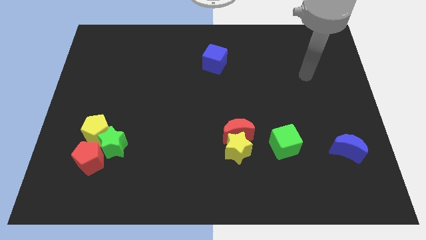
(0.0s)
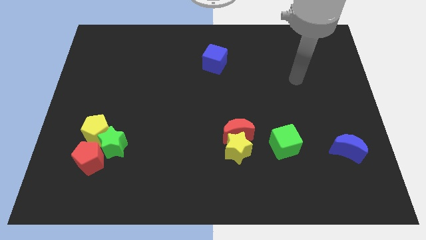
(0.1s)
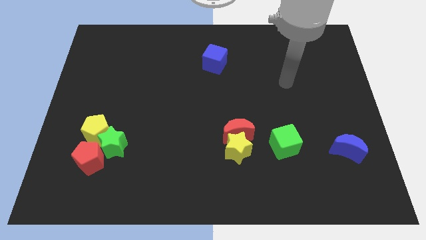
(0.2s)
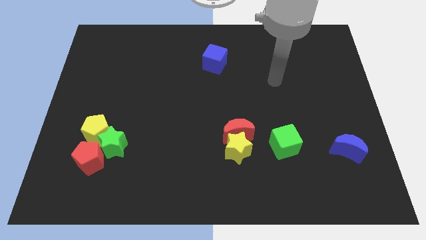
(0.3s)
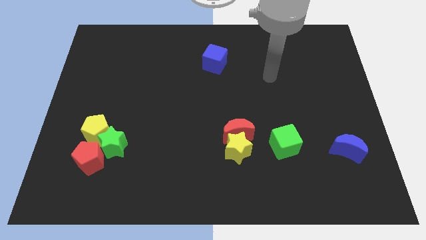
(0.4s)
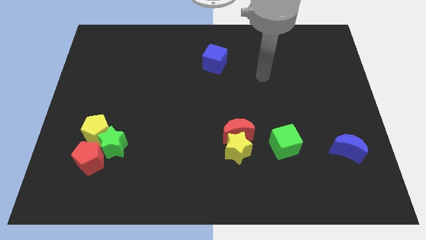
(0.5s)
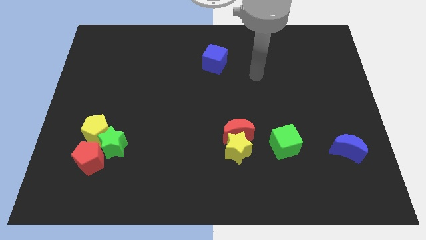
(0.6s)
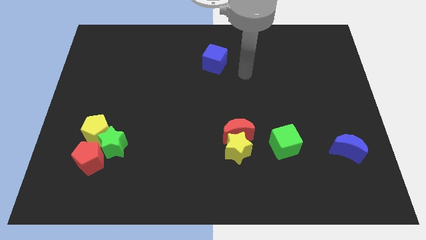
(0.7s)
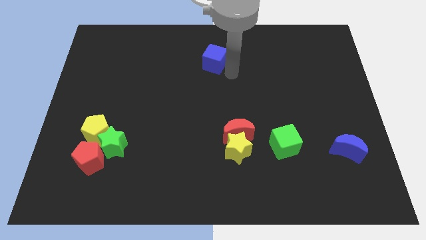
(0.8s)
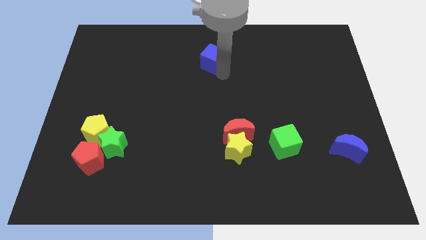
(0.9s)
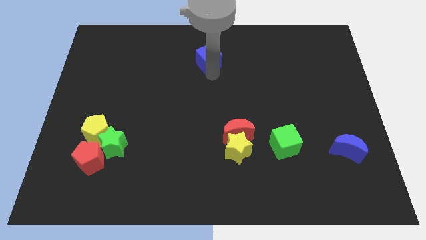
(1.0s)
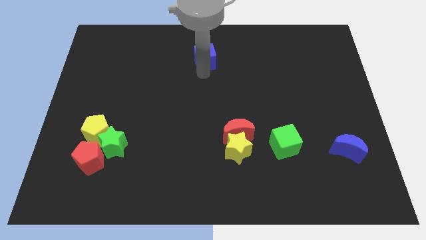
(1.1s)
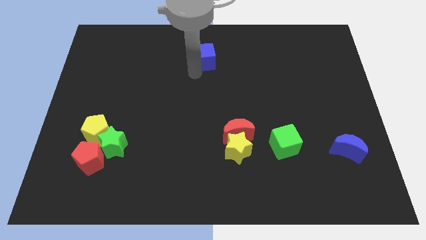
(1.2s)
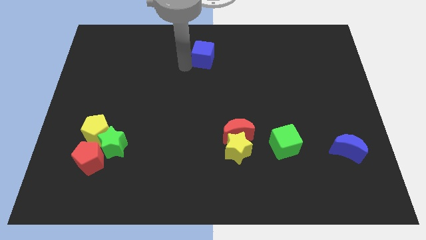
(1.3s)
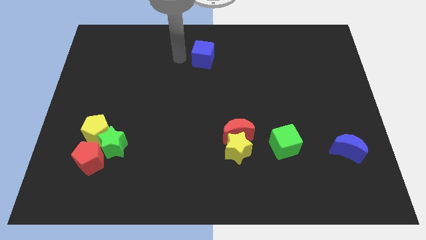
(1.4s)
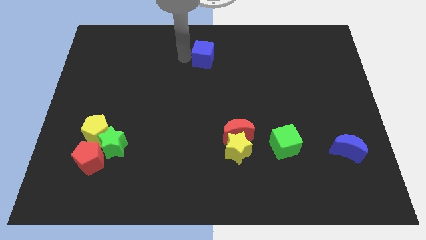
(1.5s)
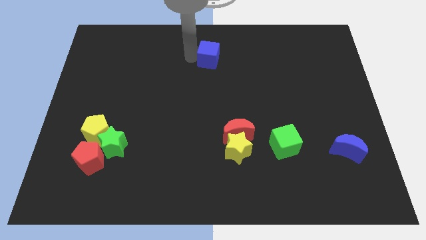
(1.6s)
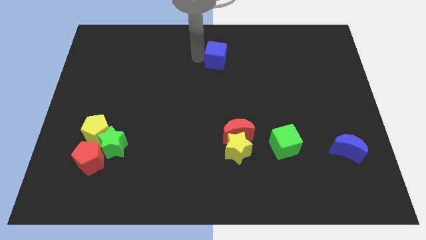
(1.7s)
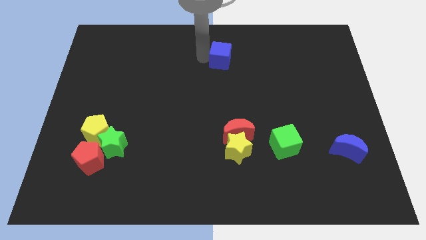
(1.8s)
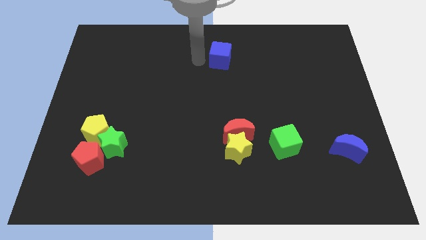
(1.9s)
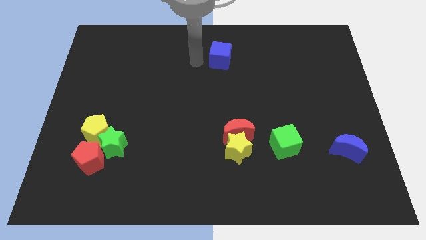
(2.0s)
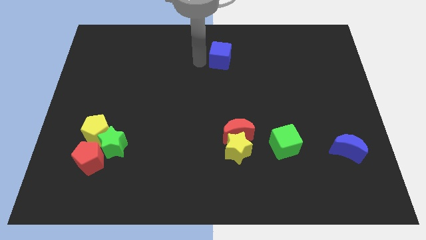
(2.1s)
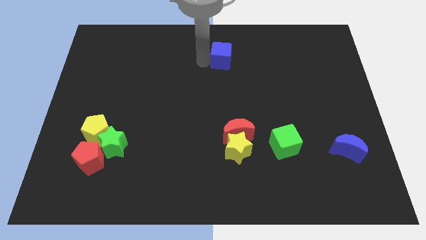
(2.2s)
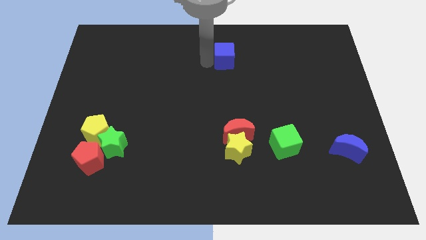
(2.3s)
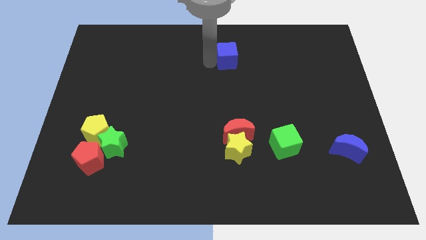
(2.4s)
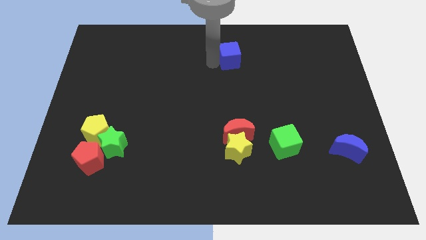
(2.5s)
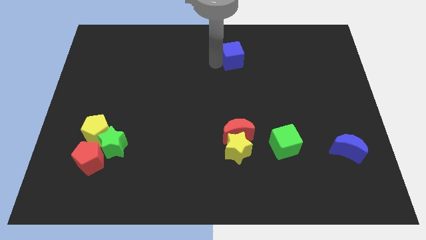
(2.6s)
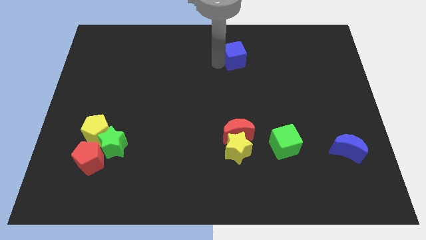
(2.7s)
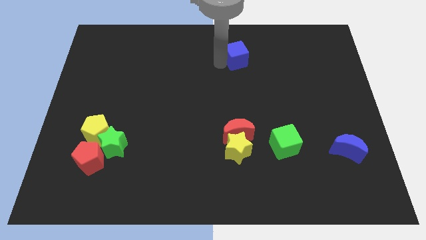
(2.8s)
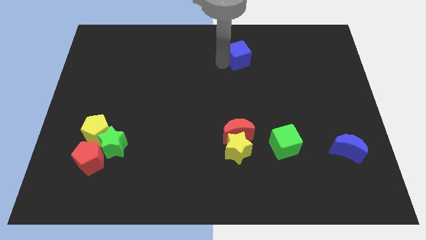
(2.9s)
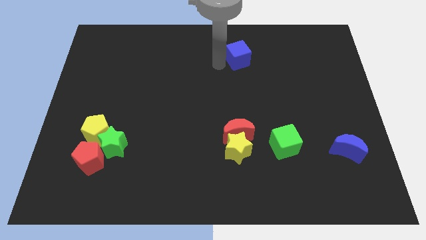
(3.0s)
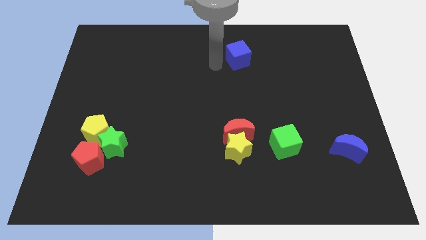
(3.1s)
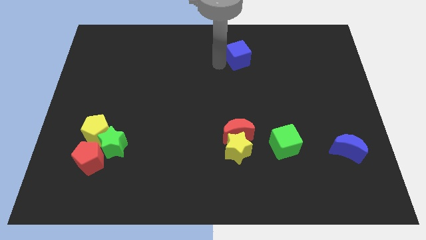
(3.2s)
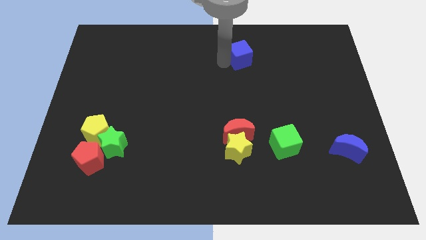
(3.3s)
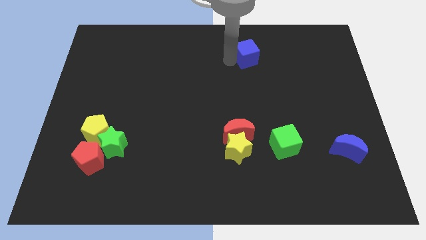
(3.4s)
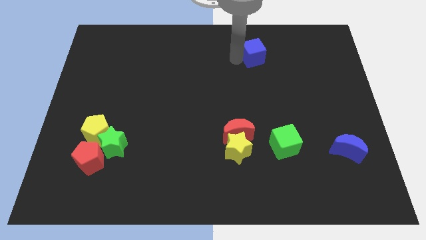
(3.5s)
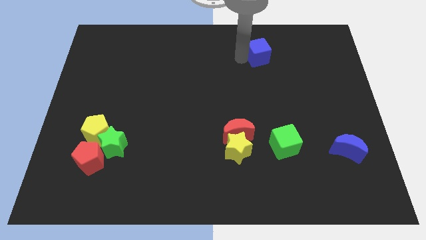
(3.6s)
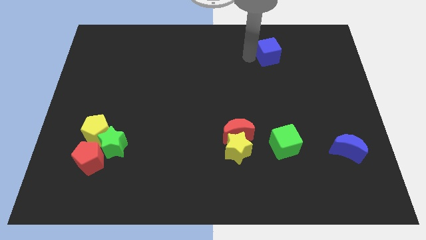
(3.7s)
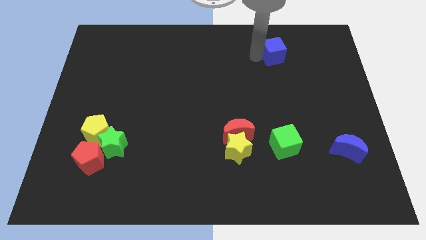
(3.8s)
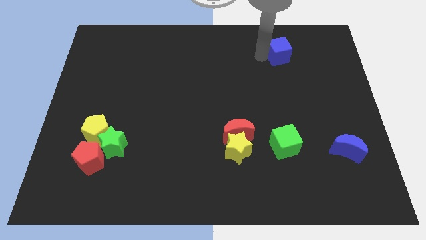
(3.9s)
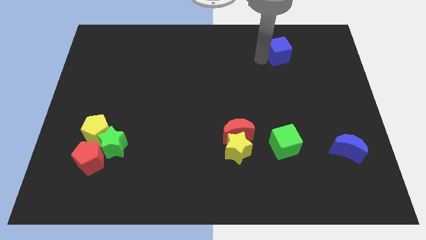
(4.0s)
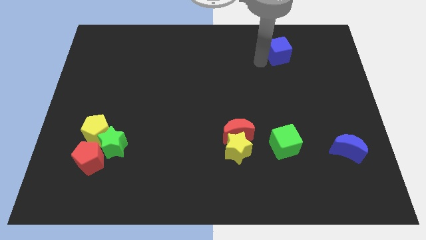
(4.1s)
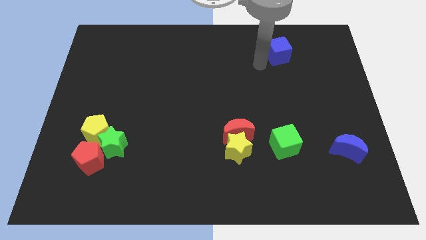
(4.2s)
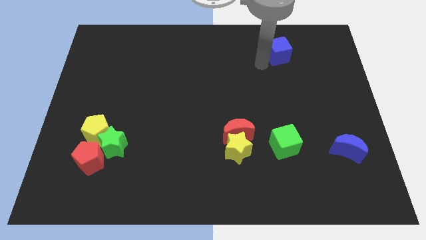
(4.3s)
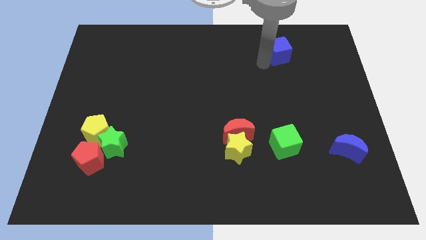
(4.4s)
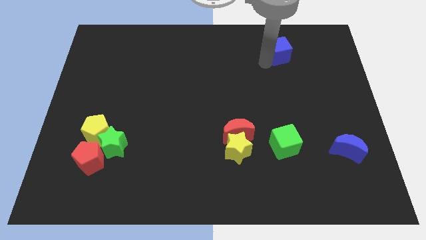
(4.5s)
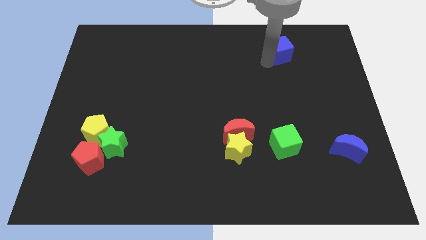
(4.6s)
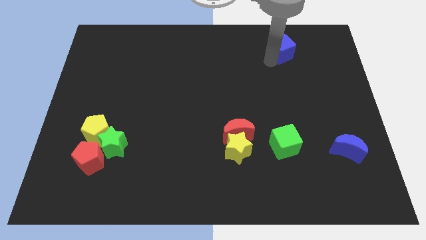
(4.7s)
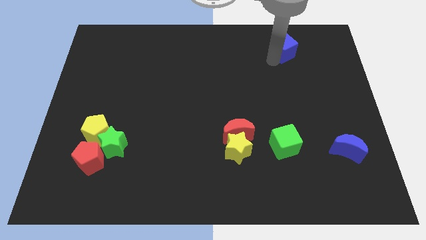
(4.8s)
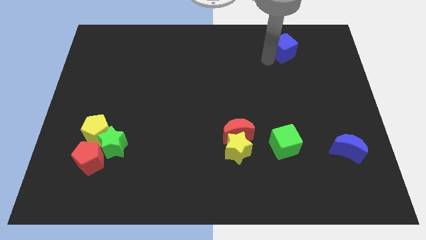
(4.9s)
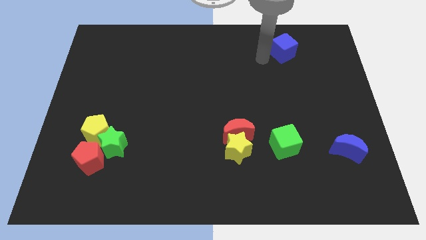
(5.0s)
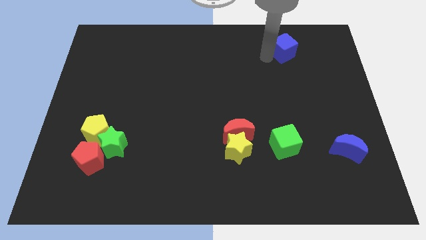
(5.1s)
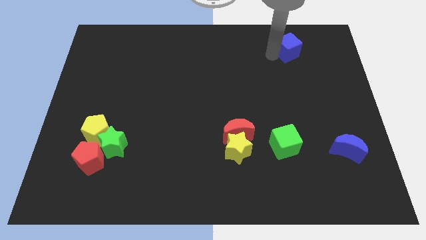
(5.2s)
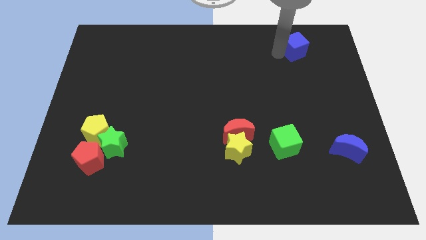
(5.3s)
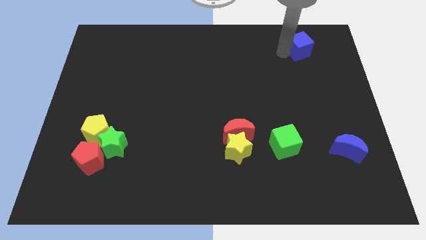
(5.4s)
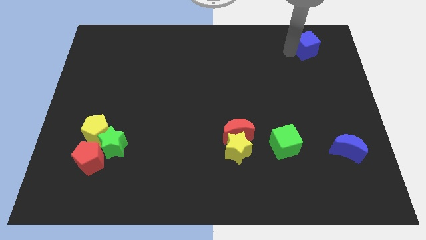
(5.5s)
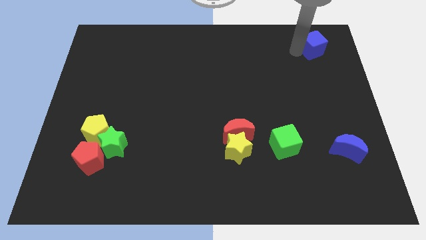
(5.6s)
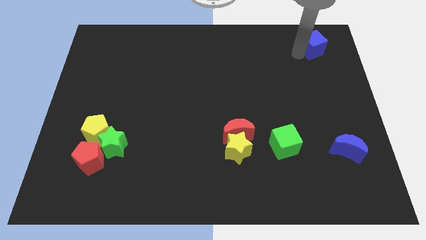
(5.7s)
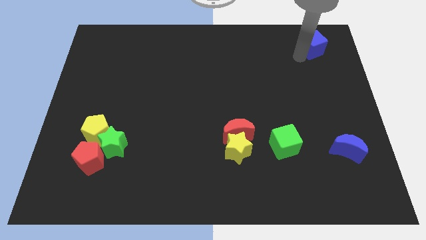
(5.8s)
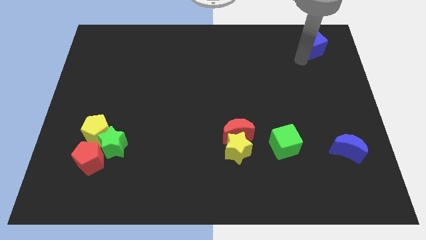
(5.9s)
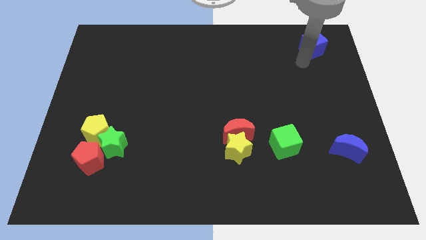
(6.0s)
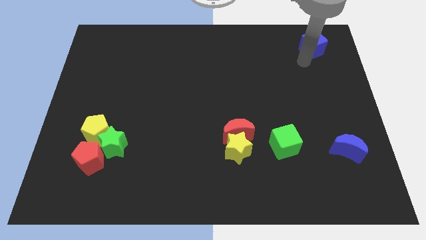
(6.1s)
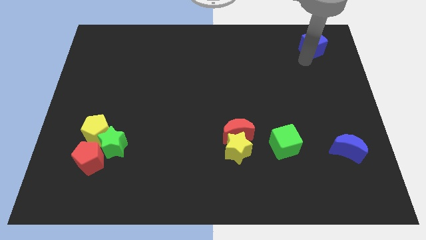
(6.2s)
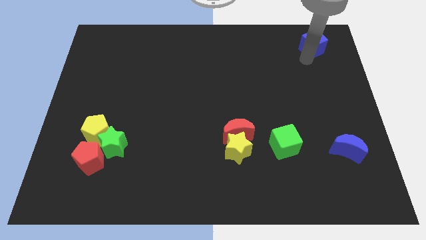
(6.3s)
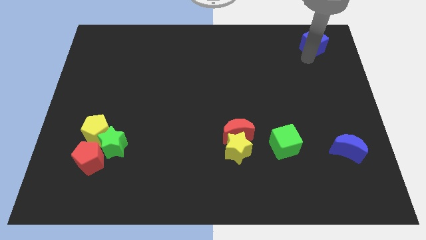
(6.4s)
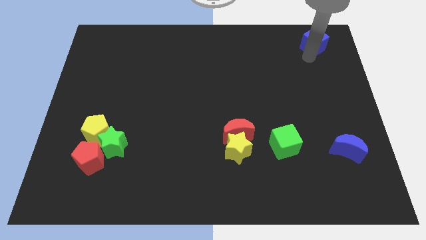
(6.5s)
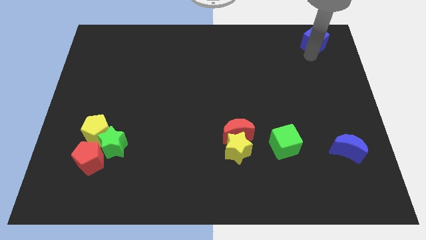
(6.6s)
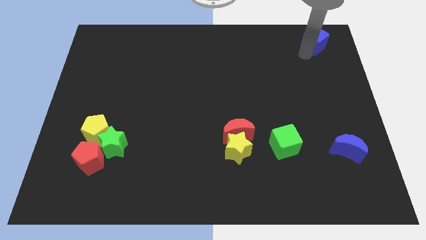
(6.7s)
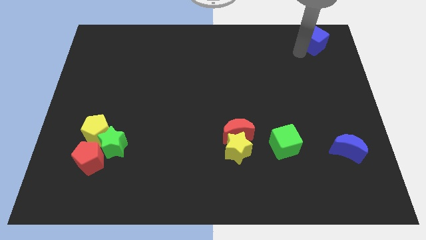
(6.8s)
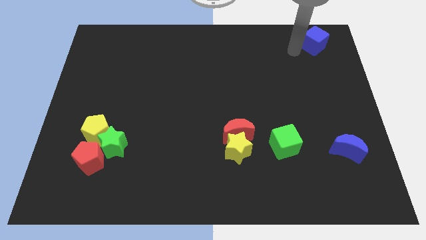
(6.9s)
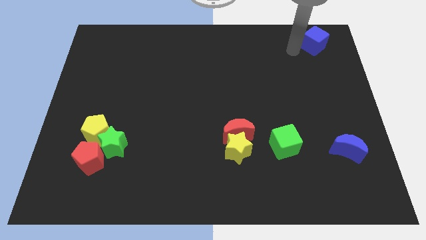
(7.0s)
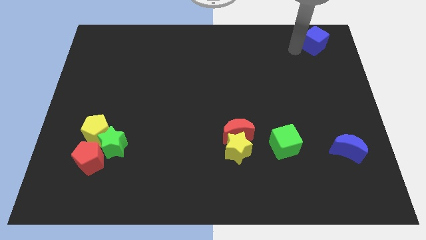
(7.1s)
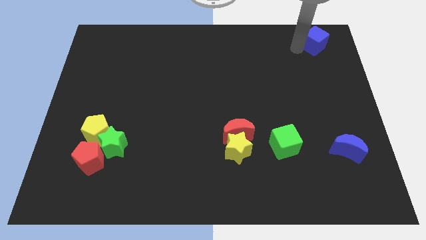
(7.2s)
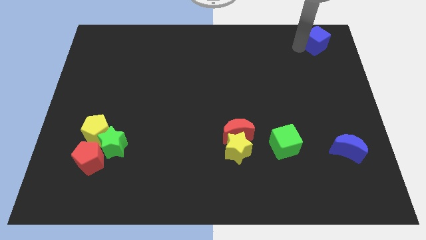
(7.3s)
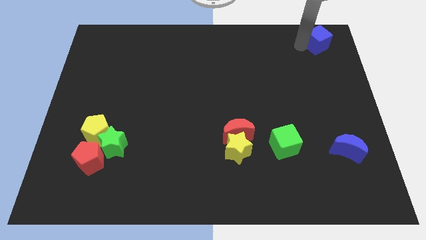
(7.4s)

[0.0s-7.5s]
move the blue cube to the top right of the board
